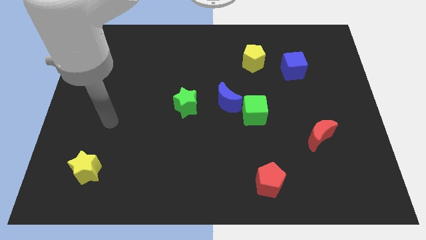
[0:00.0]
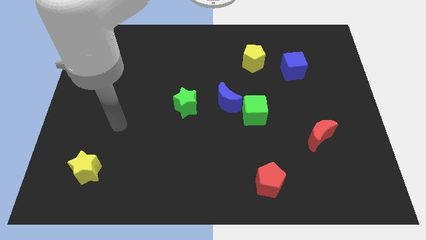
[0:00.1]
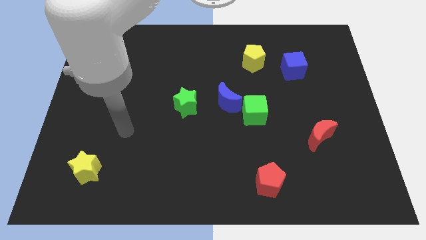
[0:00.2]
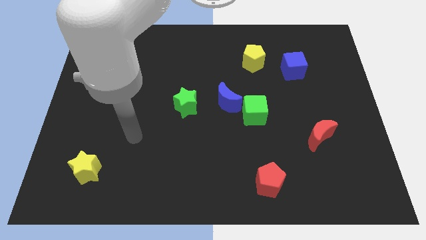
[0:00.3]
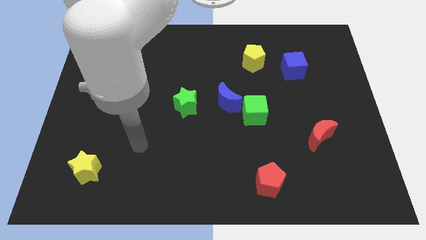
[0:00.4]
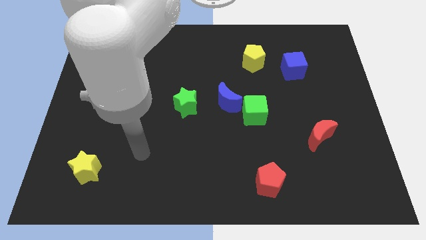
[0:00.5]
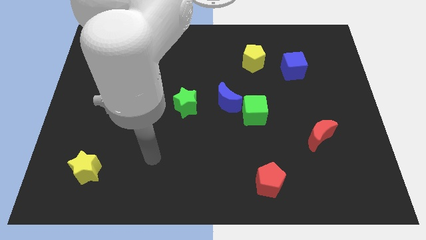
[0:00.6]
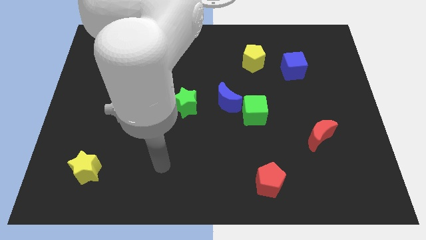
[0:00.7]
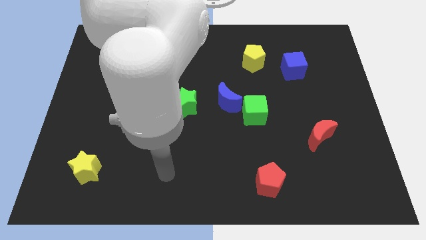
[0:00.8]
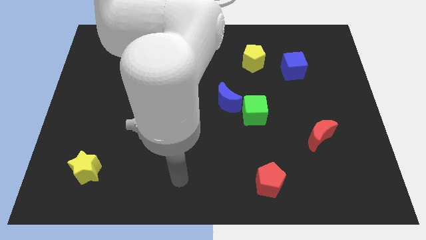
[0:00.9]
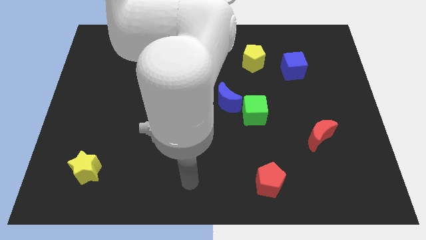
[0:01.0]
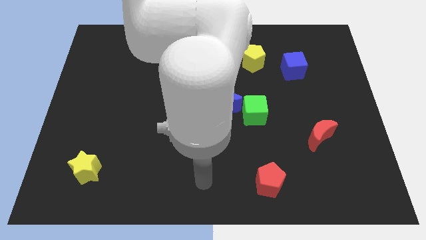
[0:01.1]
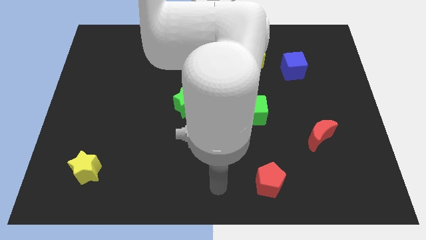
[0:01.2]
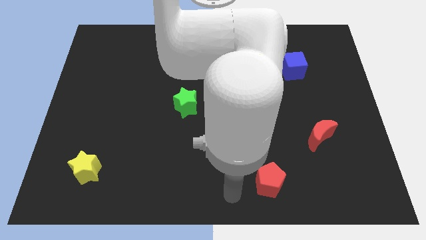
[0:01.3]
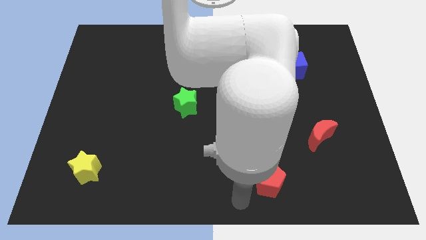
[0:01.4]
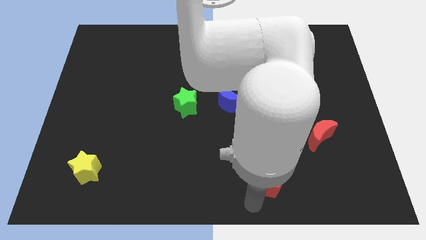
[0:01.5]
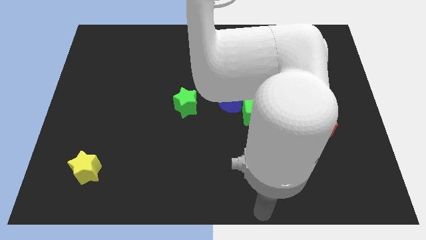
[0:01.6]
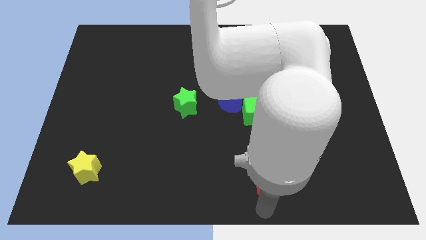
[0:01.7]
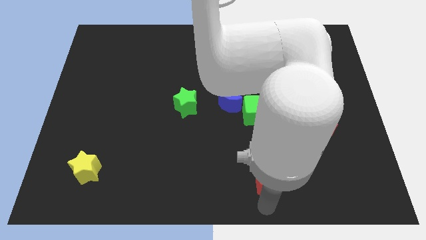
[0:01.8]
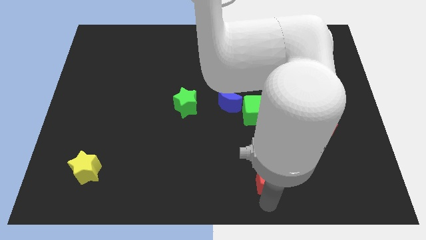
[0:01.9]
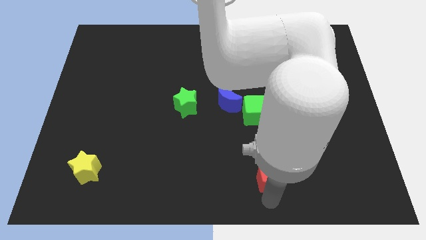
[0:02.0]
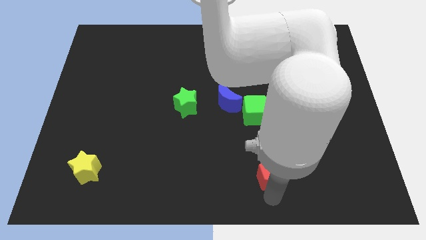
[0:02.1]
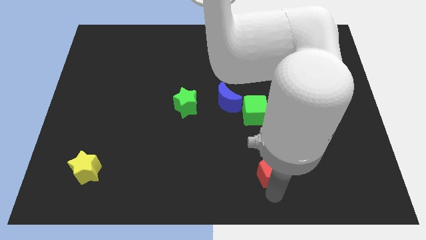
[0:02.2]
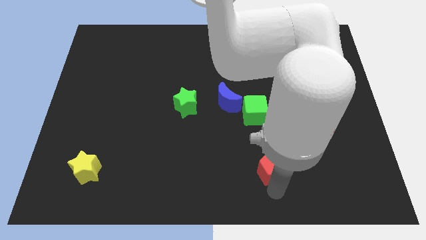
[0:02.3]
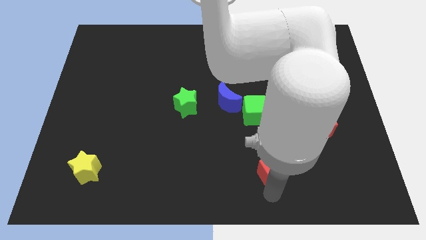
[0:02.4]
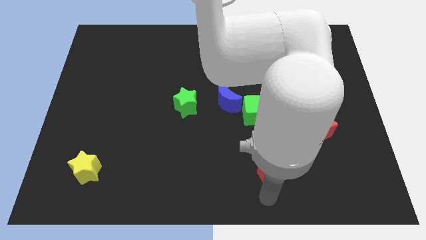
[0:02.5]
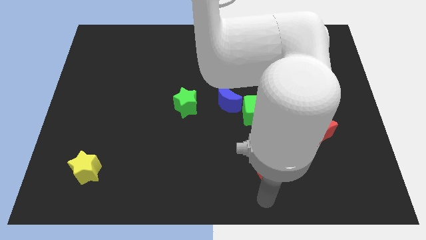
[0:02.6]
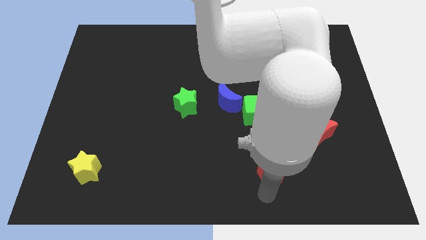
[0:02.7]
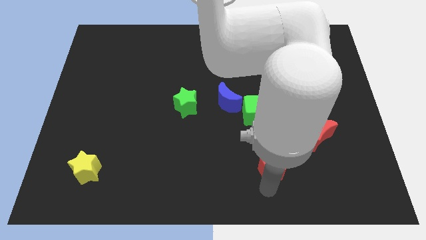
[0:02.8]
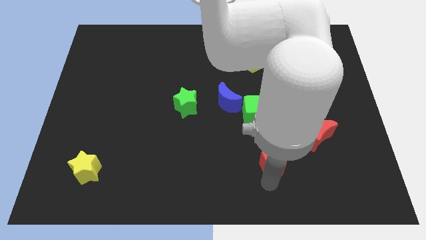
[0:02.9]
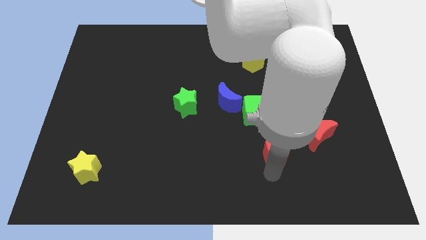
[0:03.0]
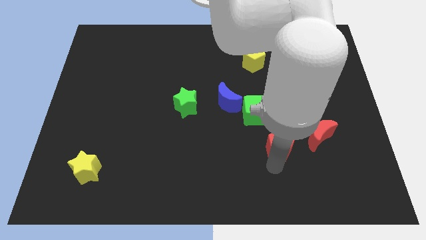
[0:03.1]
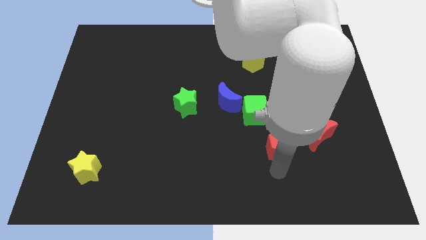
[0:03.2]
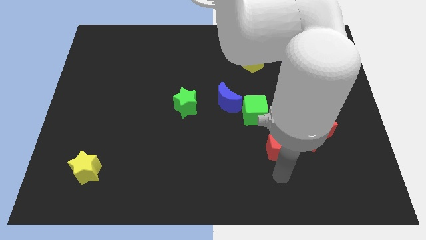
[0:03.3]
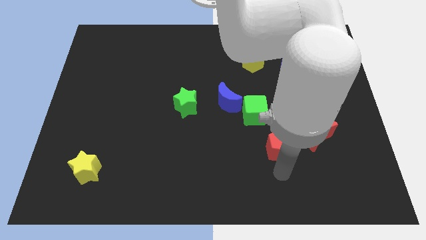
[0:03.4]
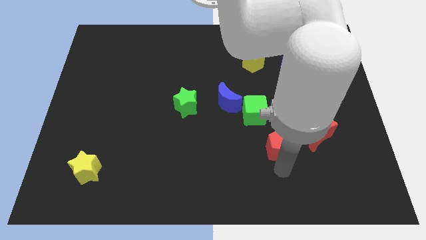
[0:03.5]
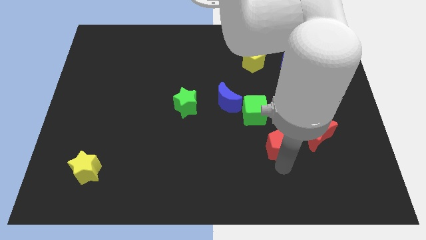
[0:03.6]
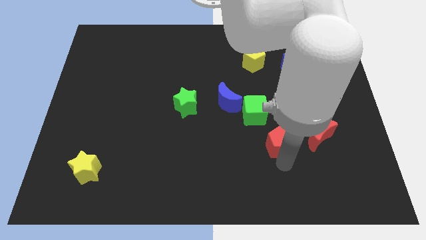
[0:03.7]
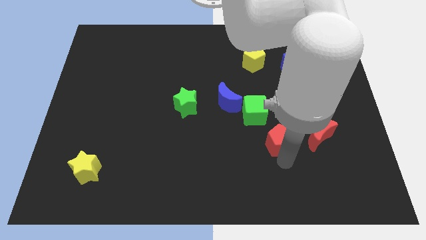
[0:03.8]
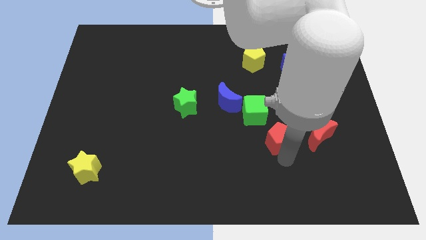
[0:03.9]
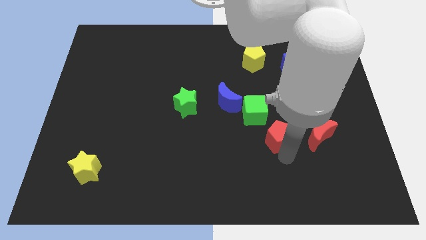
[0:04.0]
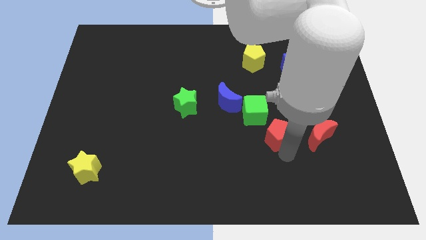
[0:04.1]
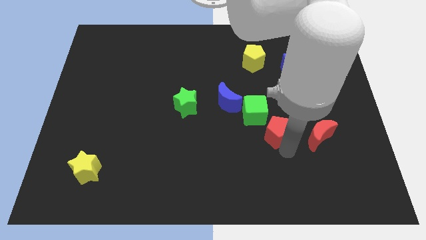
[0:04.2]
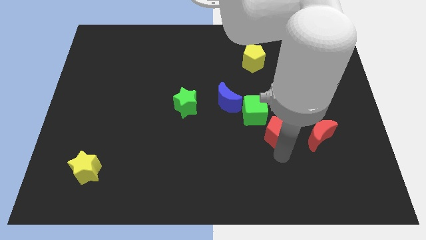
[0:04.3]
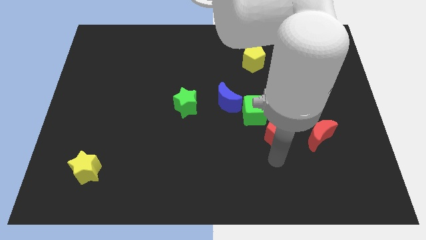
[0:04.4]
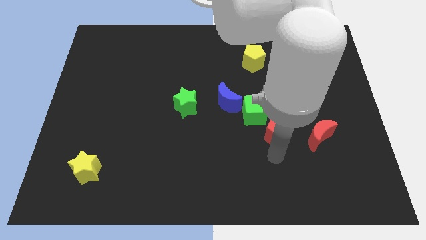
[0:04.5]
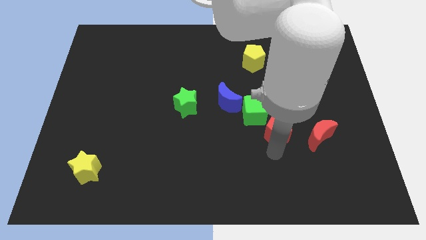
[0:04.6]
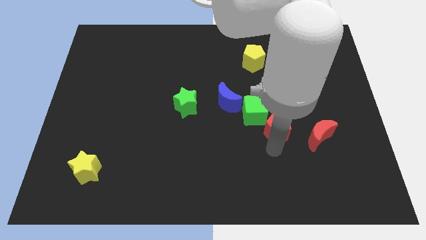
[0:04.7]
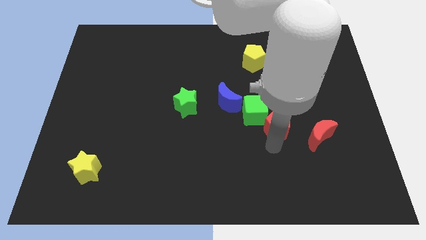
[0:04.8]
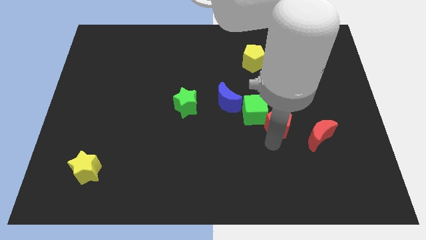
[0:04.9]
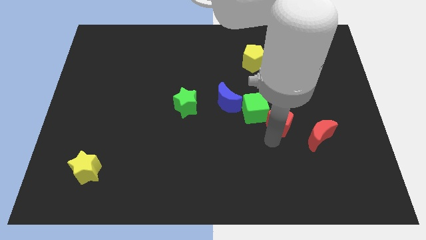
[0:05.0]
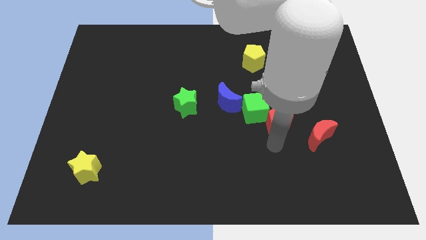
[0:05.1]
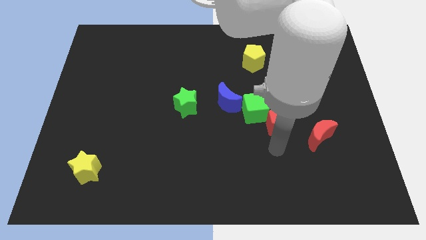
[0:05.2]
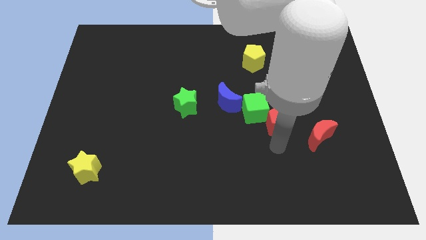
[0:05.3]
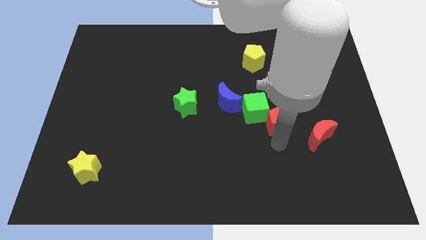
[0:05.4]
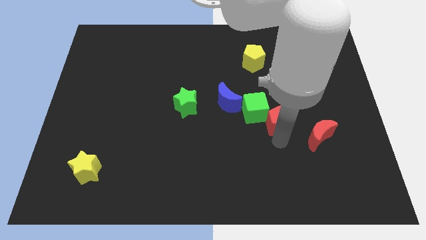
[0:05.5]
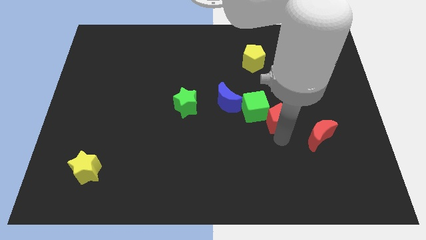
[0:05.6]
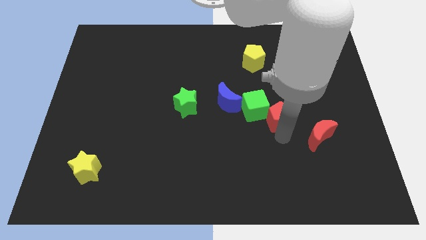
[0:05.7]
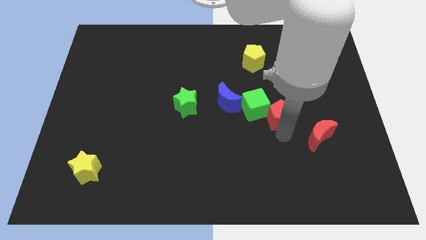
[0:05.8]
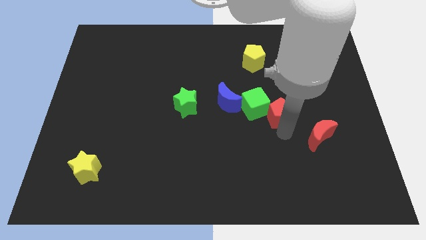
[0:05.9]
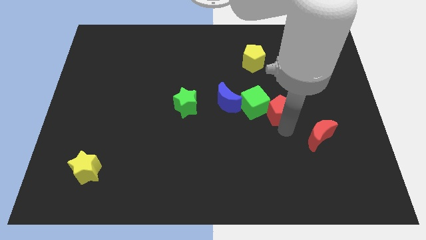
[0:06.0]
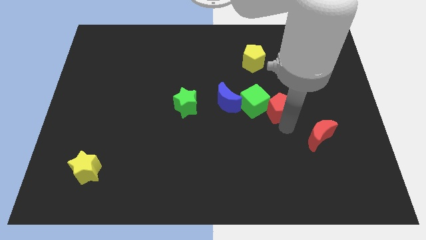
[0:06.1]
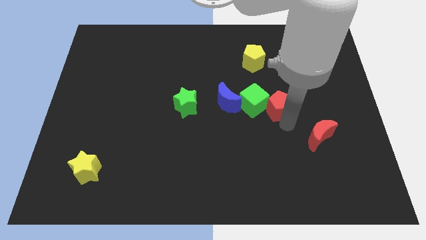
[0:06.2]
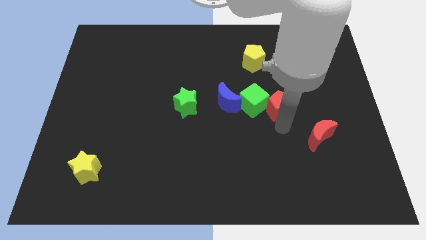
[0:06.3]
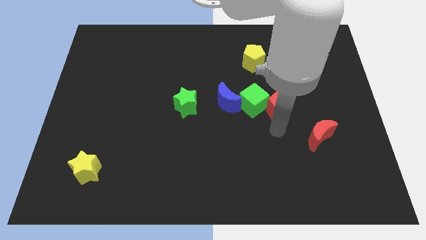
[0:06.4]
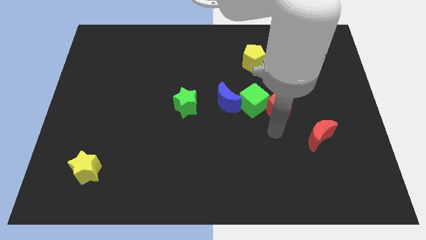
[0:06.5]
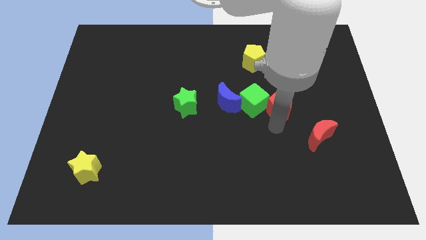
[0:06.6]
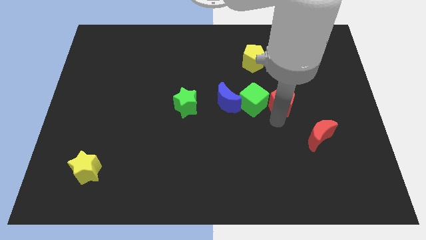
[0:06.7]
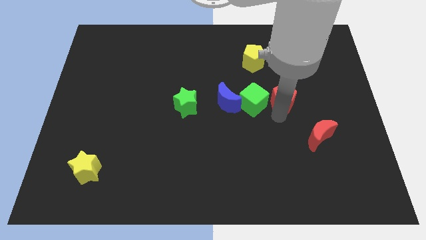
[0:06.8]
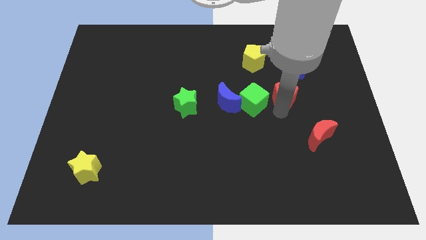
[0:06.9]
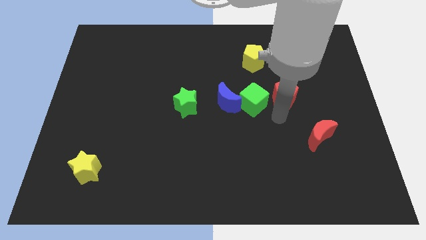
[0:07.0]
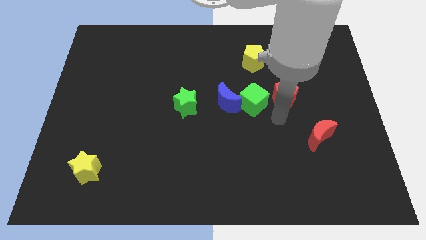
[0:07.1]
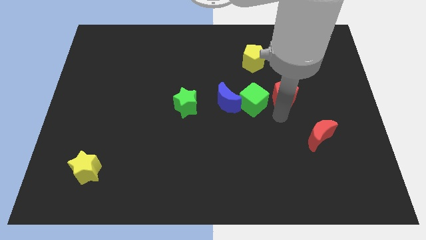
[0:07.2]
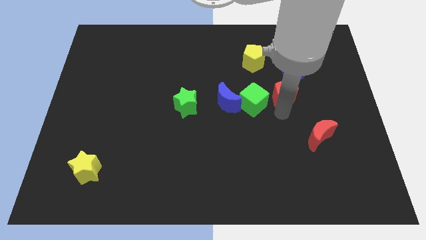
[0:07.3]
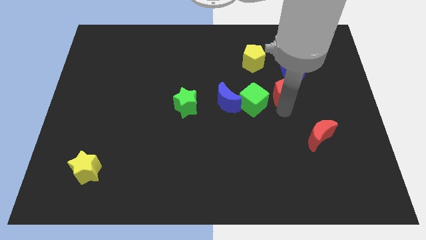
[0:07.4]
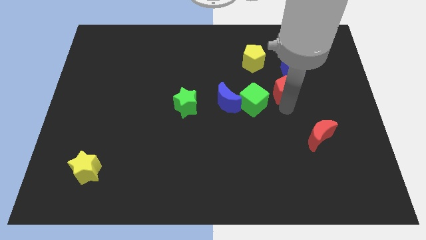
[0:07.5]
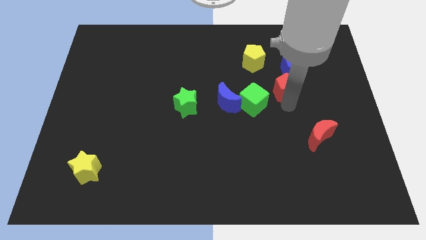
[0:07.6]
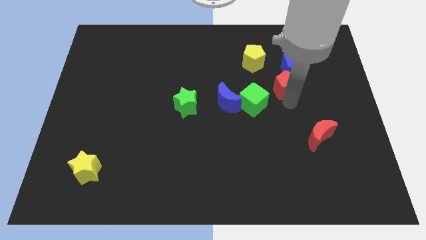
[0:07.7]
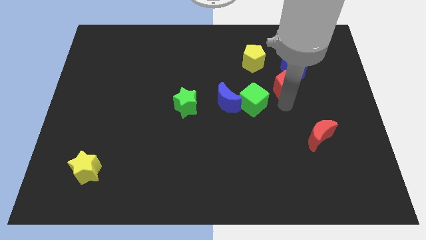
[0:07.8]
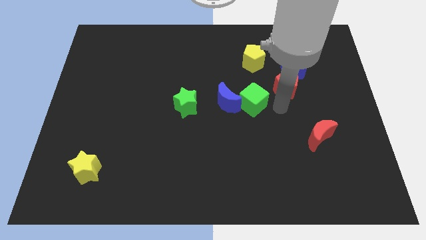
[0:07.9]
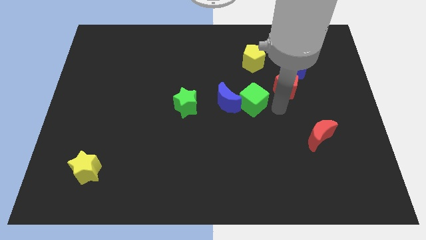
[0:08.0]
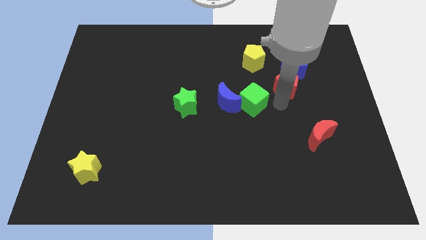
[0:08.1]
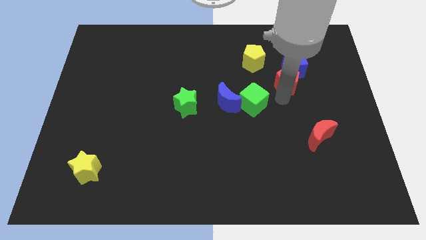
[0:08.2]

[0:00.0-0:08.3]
slide the red pentagon towards the blue cube
